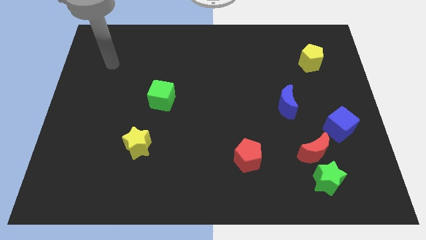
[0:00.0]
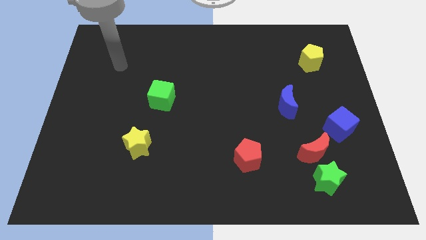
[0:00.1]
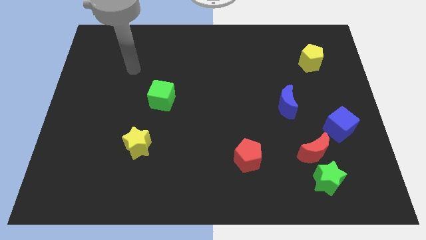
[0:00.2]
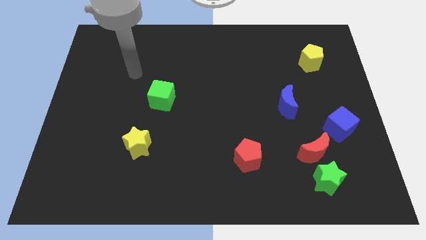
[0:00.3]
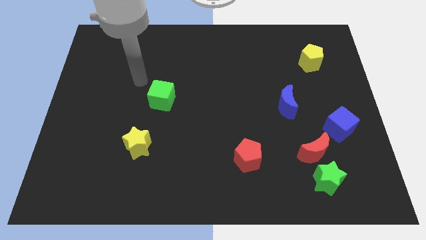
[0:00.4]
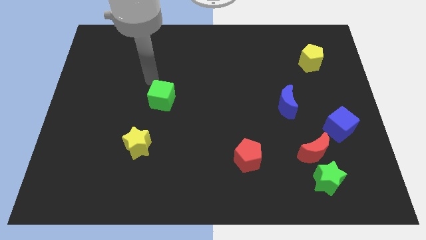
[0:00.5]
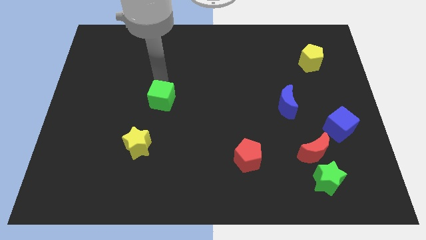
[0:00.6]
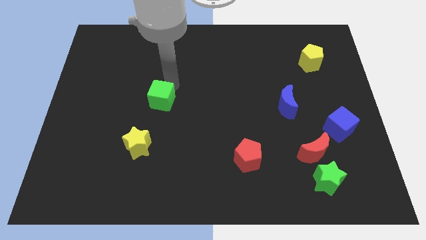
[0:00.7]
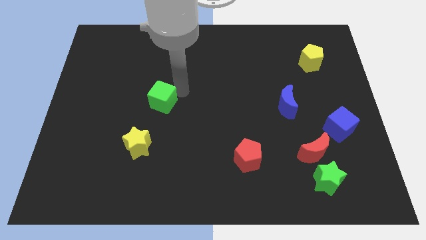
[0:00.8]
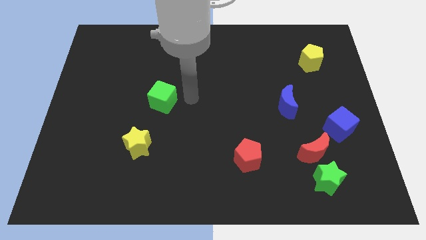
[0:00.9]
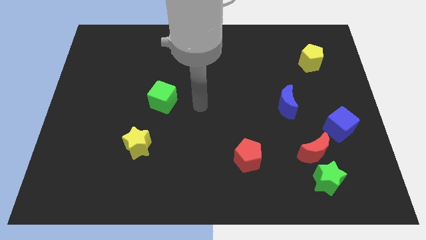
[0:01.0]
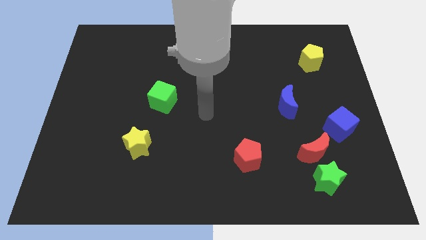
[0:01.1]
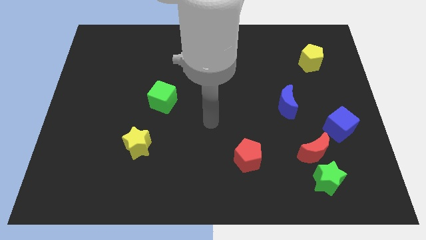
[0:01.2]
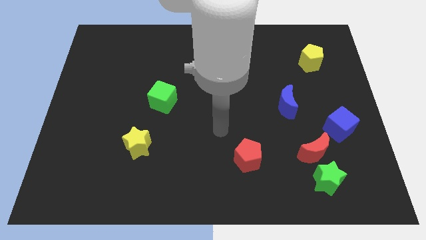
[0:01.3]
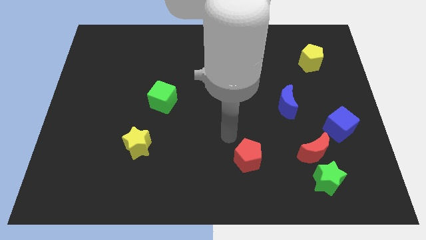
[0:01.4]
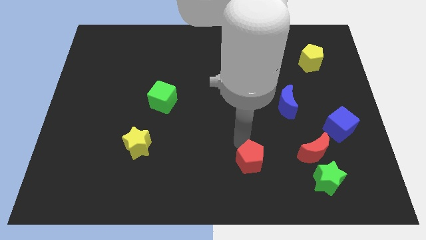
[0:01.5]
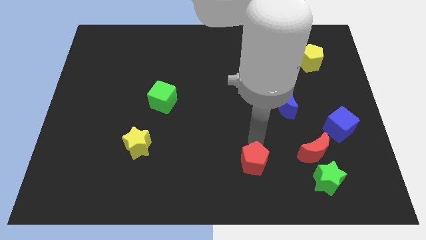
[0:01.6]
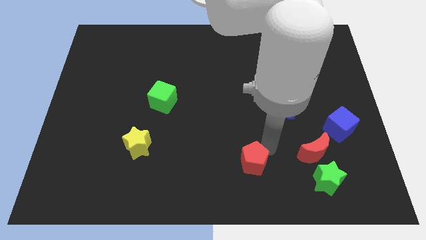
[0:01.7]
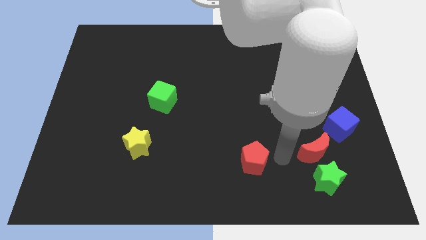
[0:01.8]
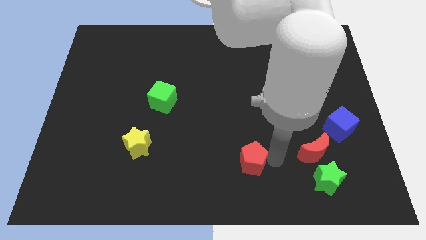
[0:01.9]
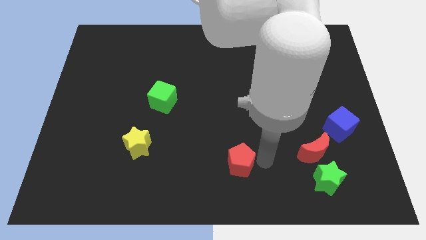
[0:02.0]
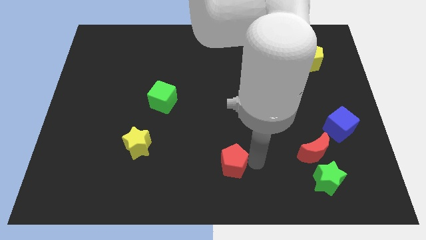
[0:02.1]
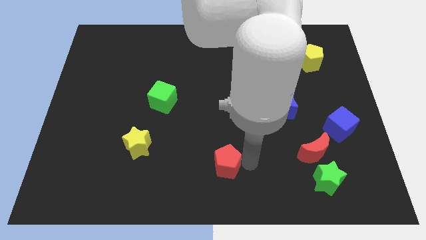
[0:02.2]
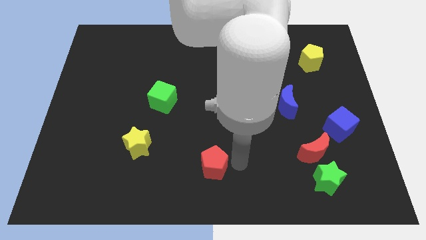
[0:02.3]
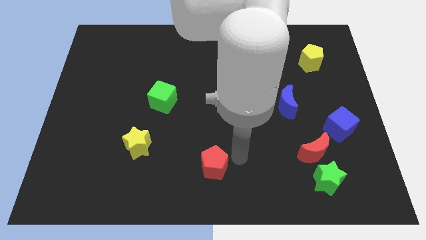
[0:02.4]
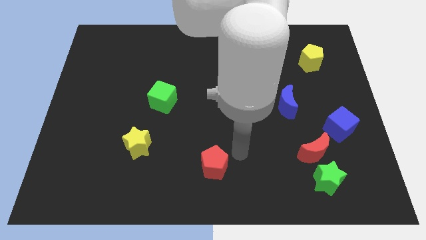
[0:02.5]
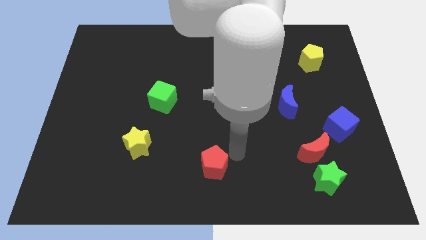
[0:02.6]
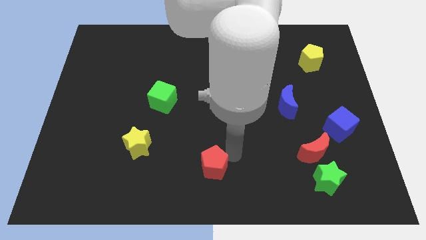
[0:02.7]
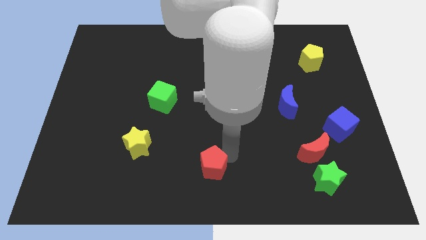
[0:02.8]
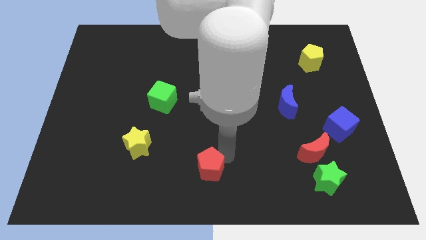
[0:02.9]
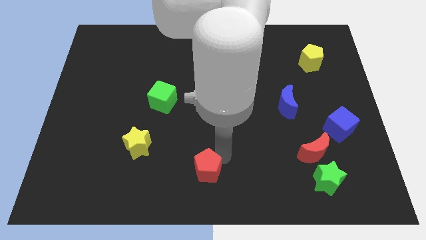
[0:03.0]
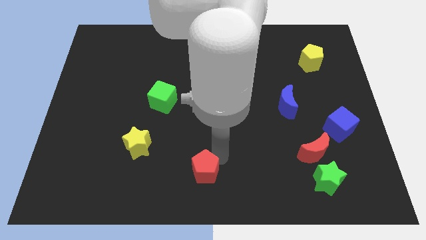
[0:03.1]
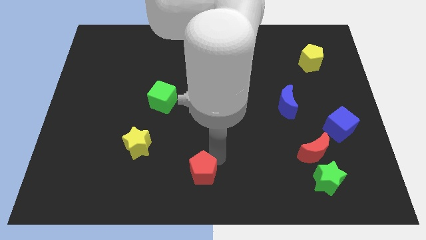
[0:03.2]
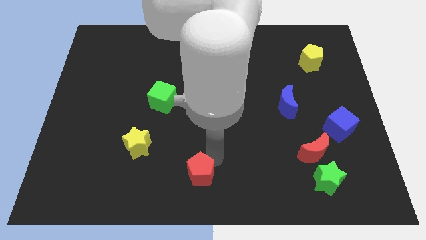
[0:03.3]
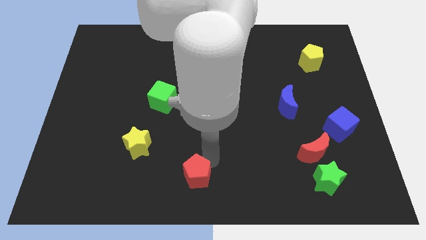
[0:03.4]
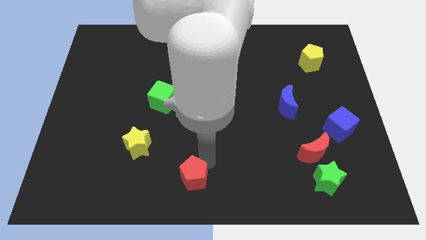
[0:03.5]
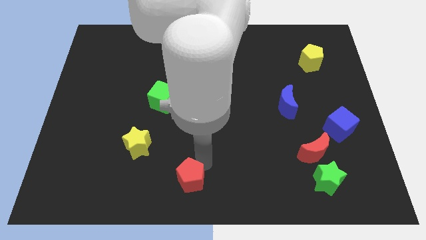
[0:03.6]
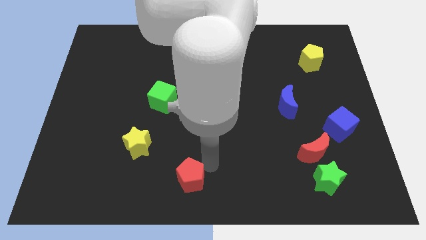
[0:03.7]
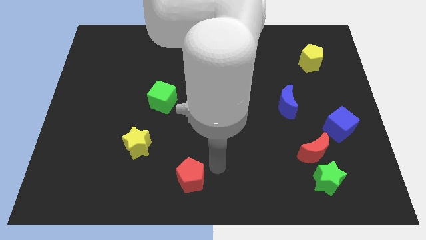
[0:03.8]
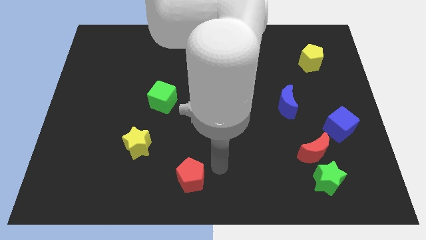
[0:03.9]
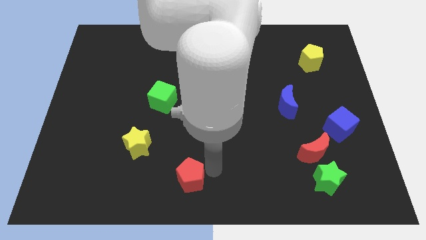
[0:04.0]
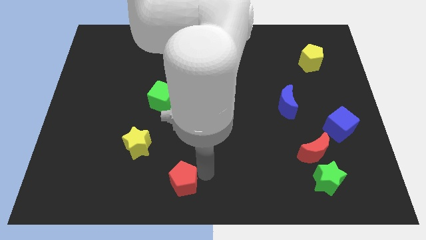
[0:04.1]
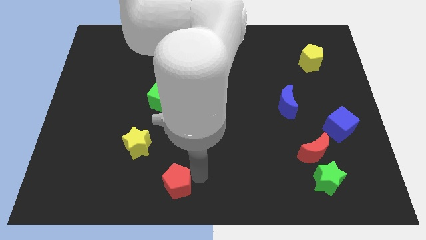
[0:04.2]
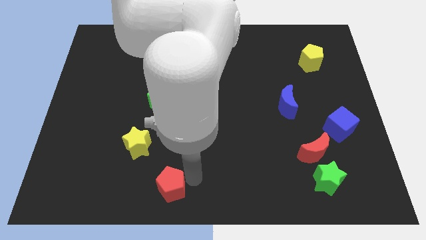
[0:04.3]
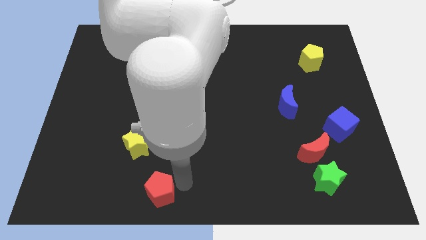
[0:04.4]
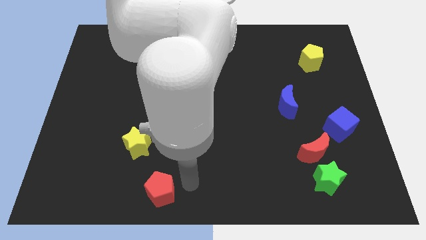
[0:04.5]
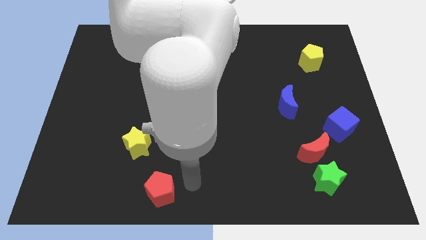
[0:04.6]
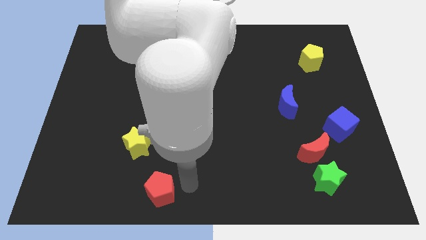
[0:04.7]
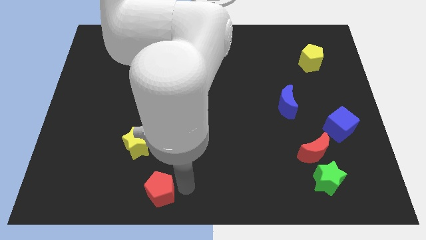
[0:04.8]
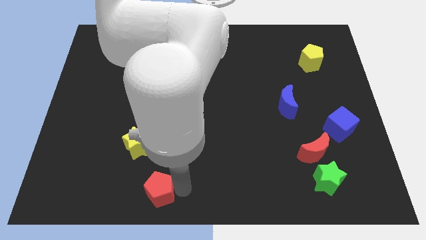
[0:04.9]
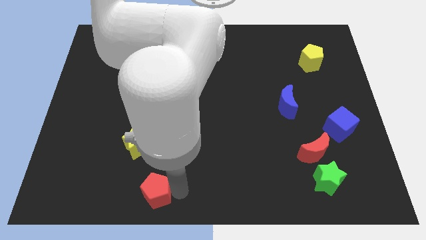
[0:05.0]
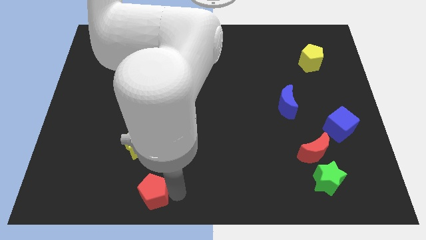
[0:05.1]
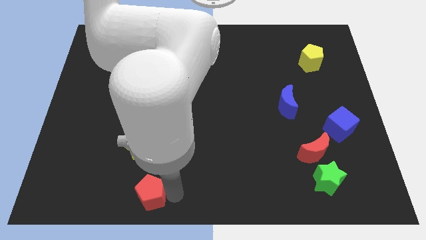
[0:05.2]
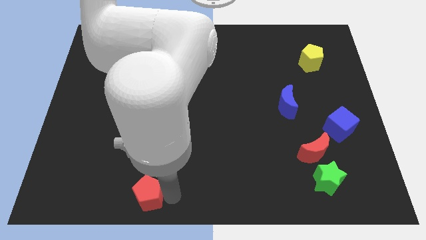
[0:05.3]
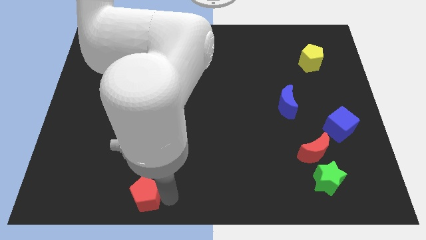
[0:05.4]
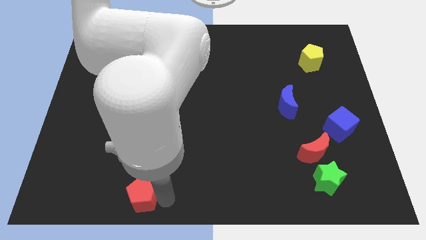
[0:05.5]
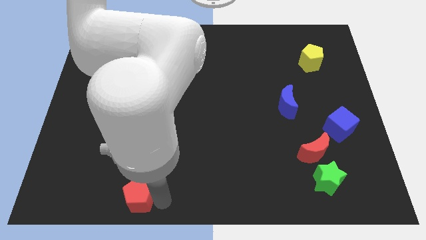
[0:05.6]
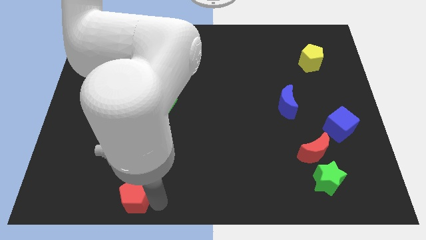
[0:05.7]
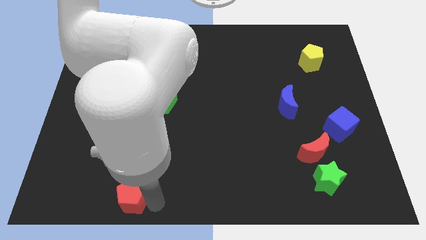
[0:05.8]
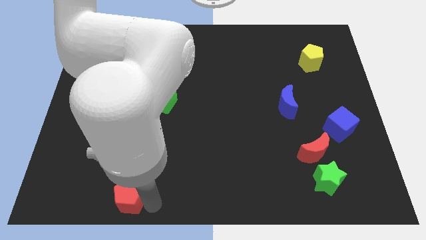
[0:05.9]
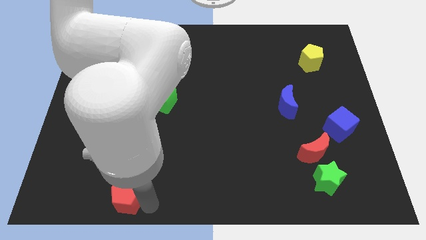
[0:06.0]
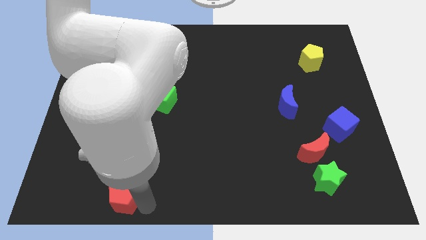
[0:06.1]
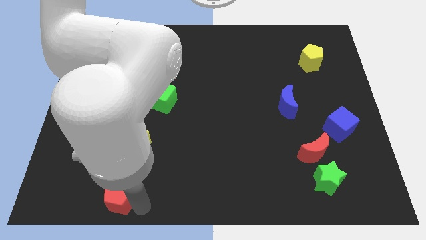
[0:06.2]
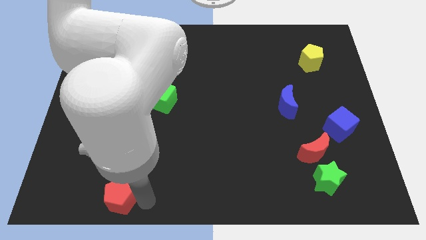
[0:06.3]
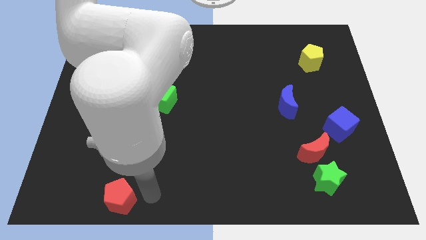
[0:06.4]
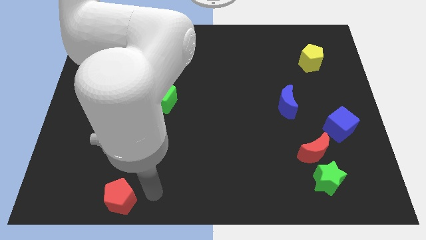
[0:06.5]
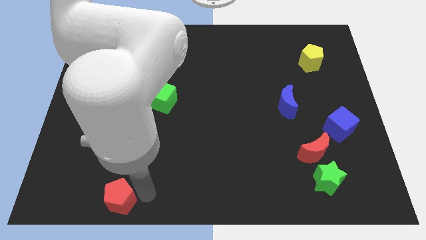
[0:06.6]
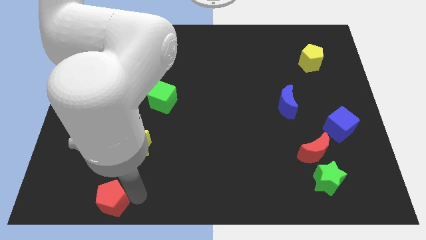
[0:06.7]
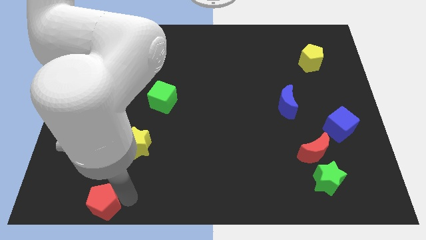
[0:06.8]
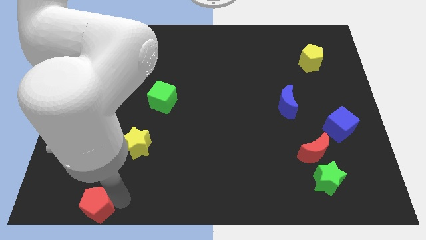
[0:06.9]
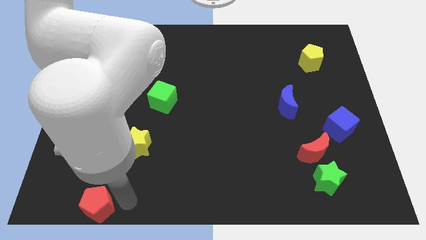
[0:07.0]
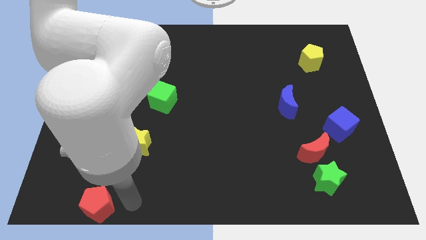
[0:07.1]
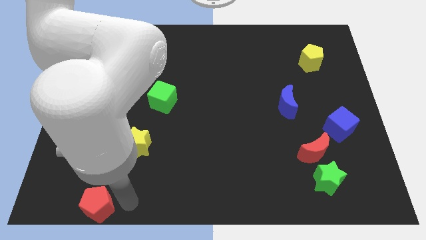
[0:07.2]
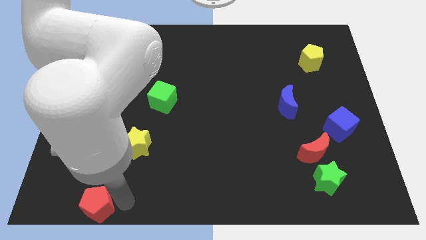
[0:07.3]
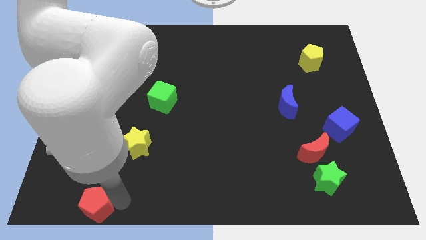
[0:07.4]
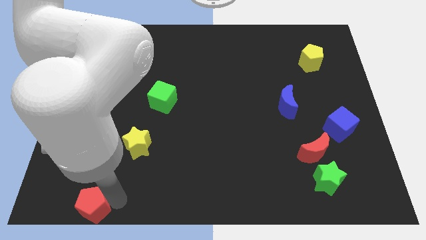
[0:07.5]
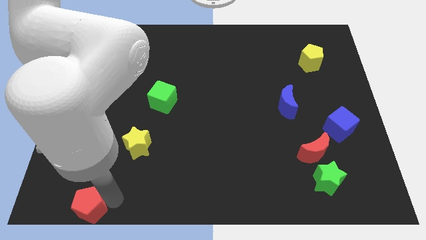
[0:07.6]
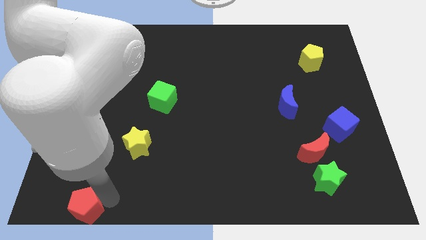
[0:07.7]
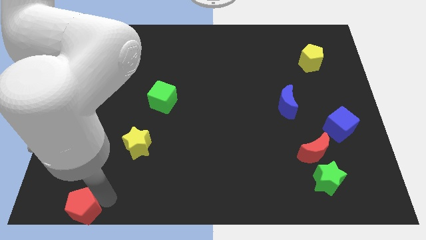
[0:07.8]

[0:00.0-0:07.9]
push the red pentagon to the bottom left of the board

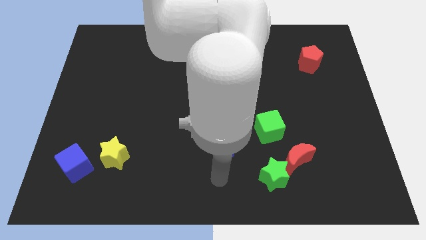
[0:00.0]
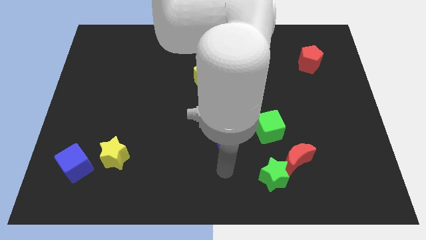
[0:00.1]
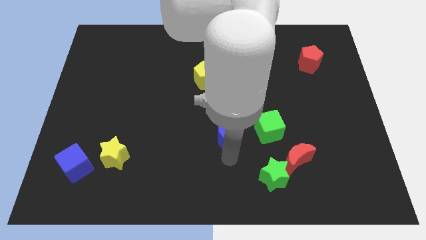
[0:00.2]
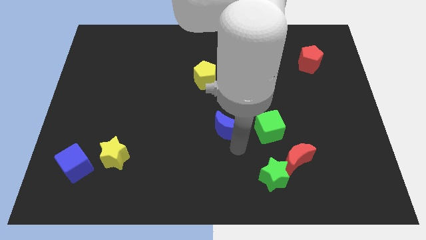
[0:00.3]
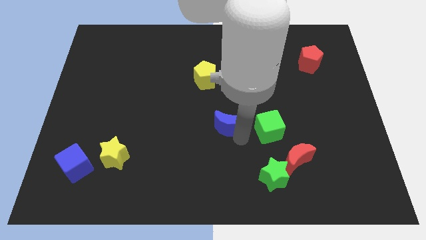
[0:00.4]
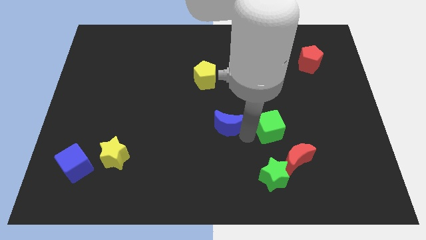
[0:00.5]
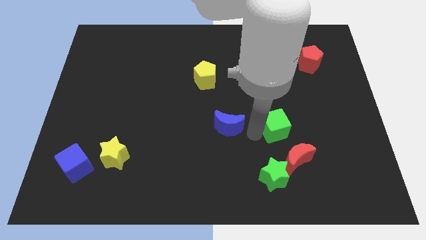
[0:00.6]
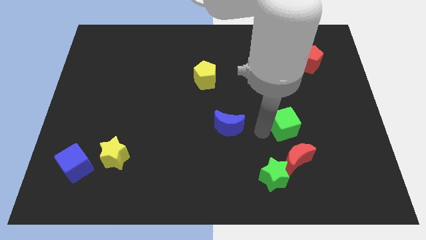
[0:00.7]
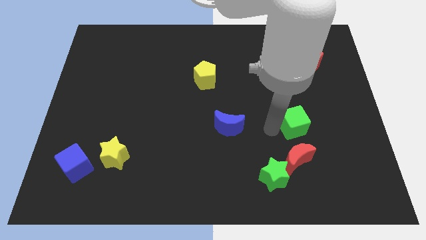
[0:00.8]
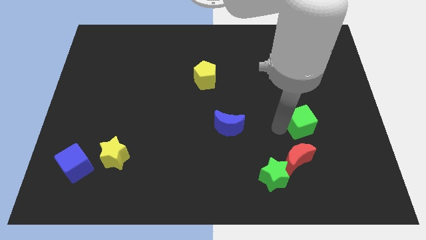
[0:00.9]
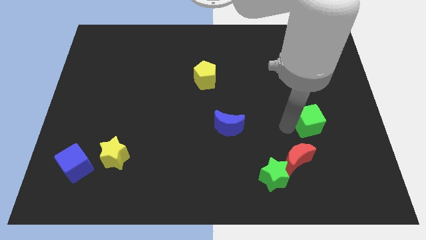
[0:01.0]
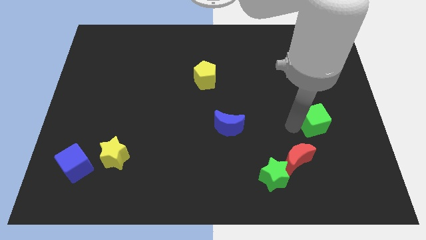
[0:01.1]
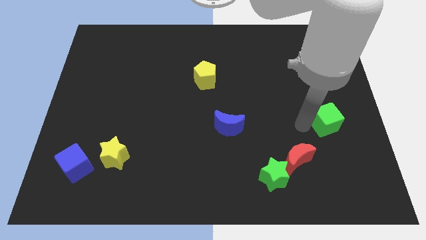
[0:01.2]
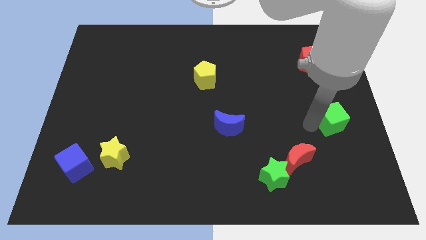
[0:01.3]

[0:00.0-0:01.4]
push the green cube to the right side of the board
